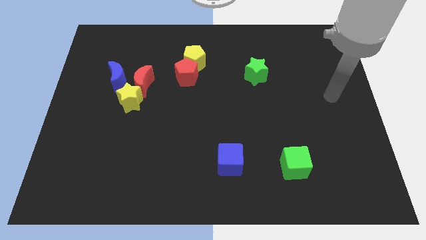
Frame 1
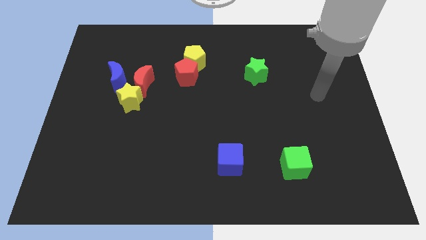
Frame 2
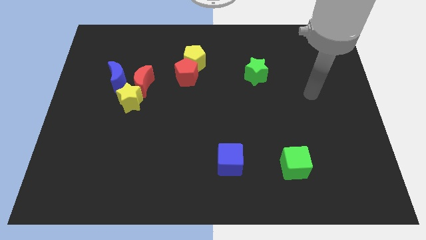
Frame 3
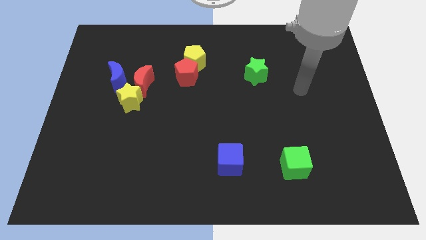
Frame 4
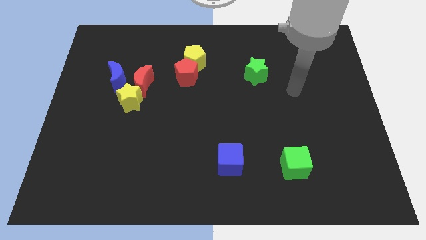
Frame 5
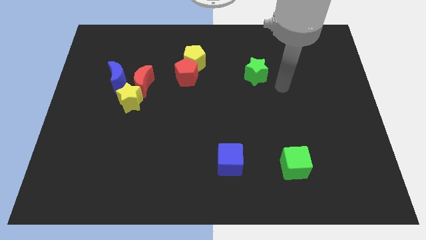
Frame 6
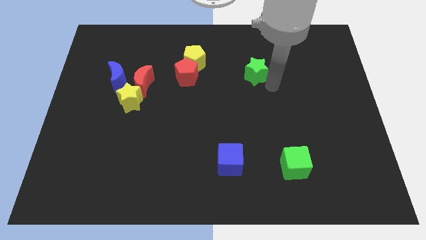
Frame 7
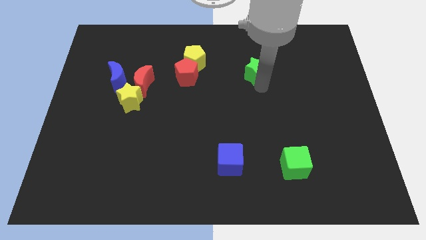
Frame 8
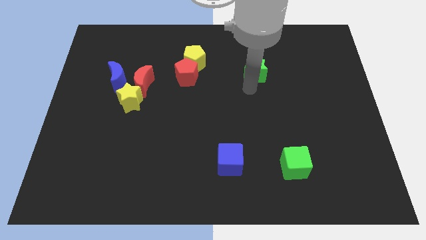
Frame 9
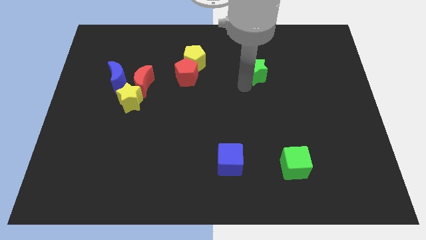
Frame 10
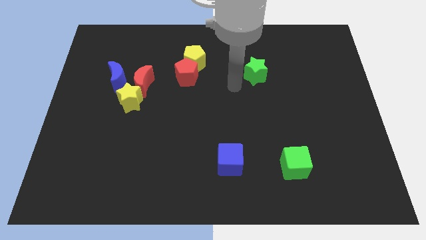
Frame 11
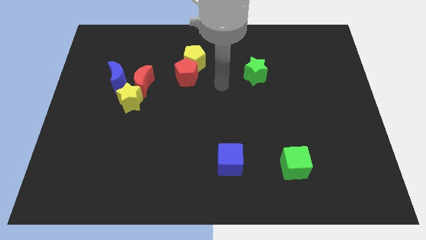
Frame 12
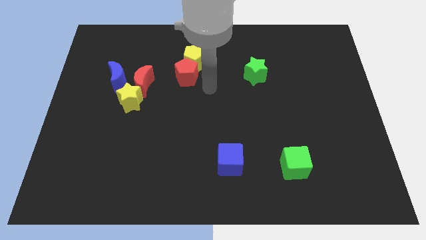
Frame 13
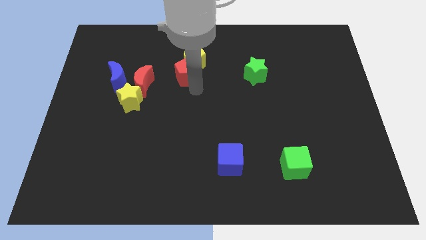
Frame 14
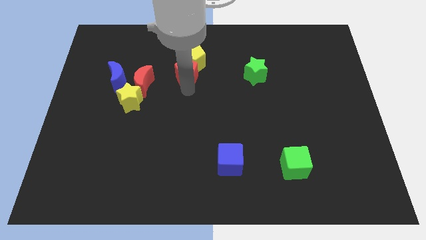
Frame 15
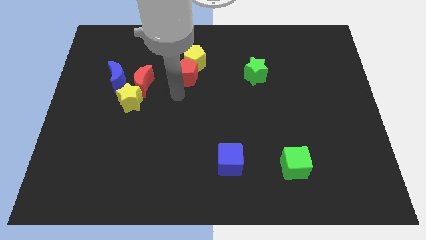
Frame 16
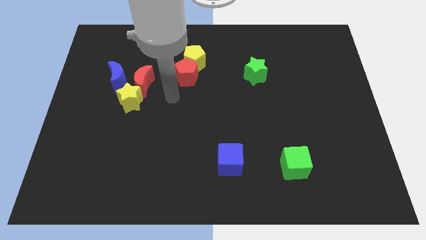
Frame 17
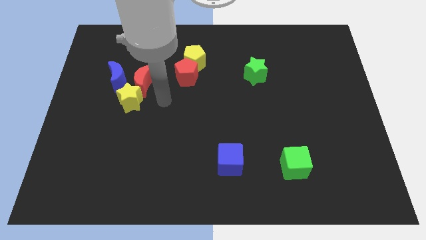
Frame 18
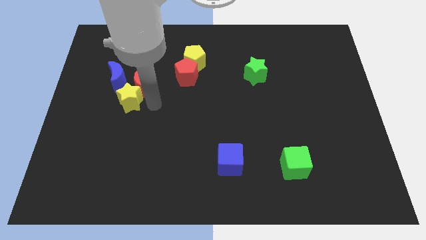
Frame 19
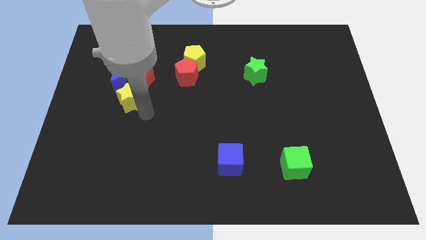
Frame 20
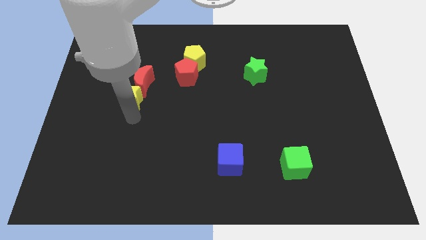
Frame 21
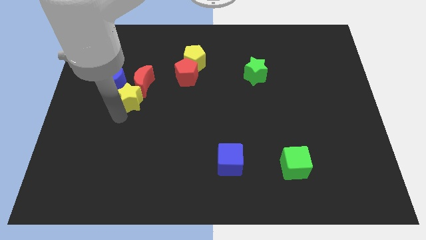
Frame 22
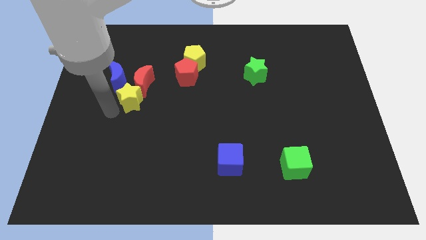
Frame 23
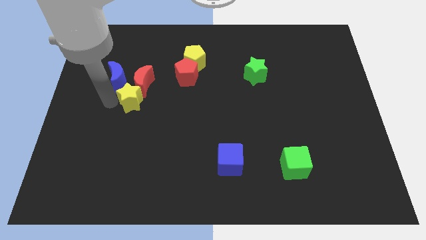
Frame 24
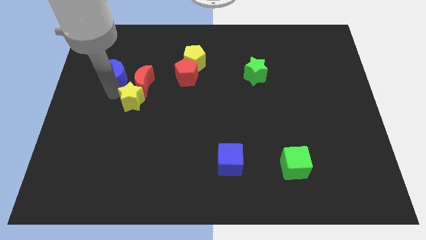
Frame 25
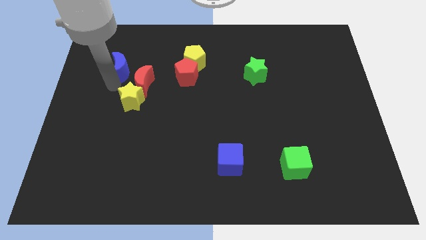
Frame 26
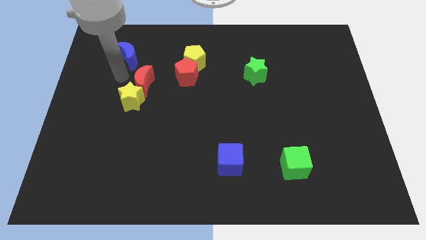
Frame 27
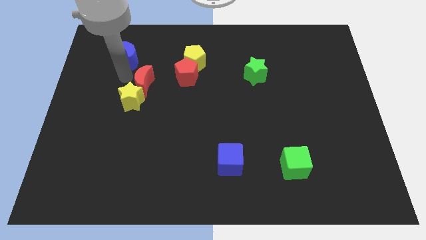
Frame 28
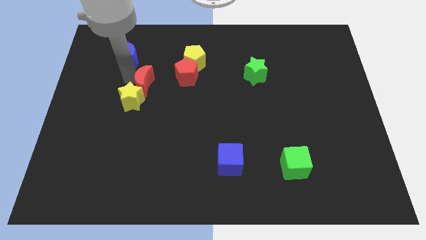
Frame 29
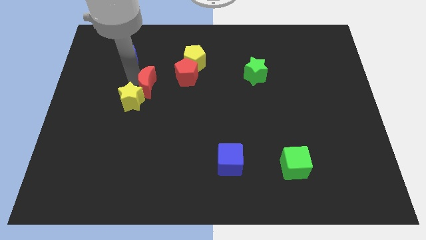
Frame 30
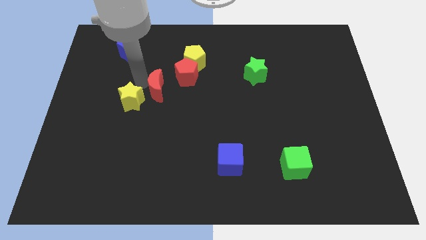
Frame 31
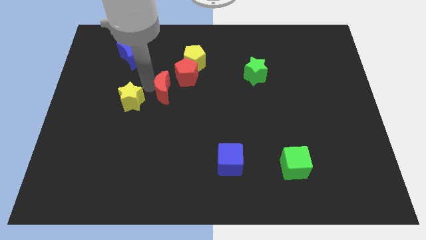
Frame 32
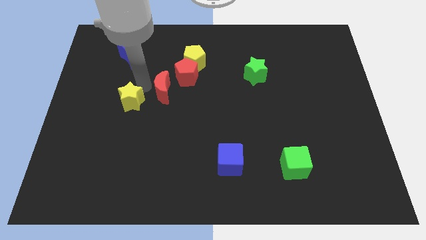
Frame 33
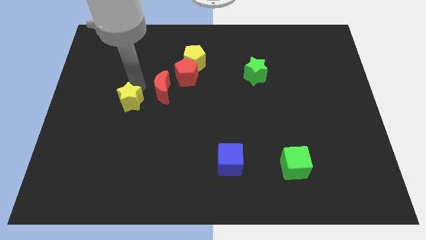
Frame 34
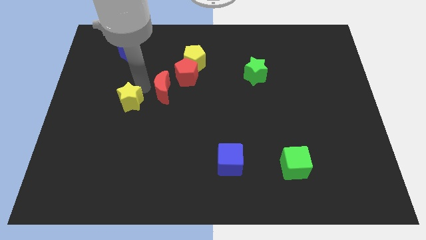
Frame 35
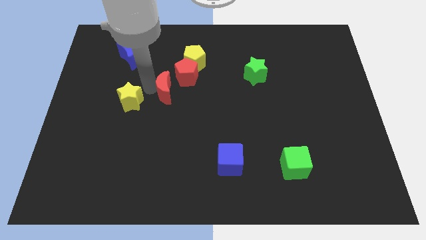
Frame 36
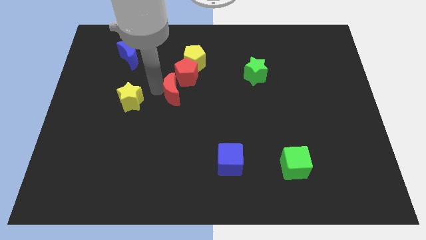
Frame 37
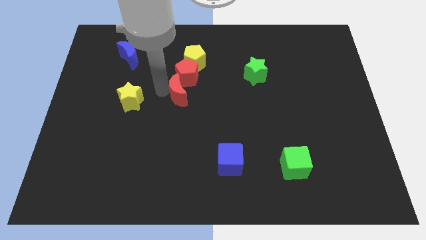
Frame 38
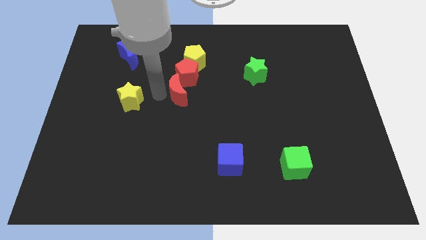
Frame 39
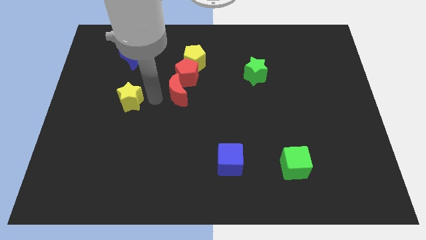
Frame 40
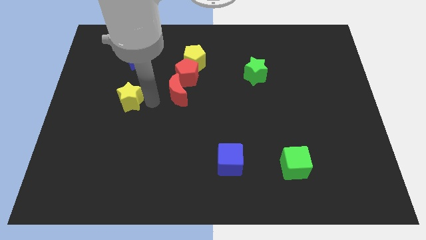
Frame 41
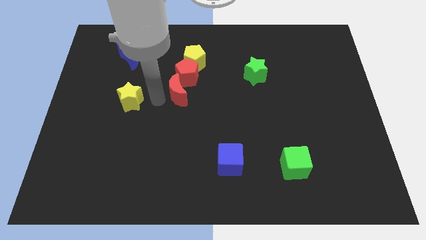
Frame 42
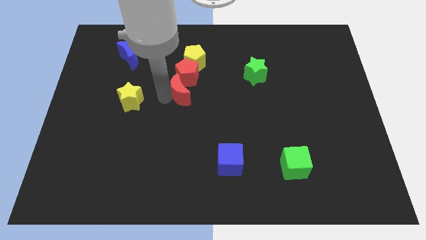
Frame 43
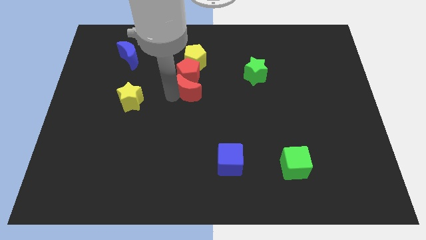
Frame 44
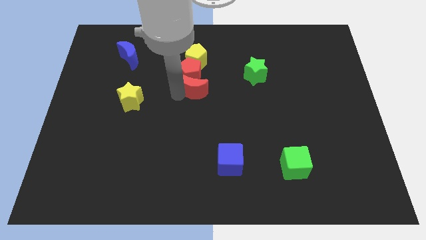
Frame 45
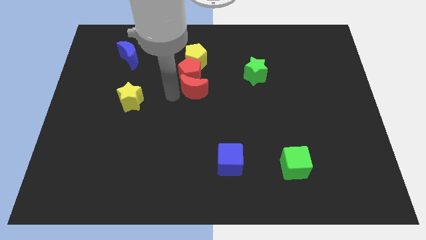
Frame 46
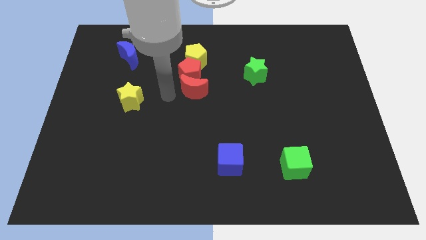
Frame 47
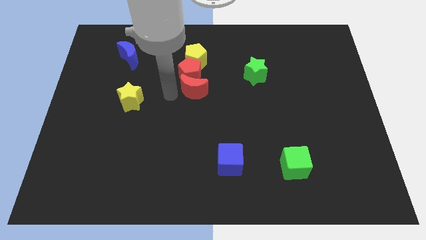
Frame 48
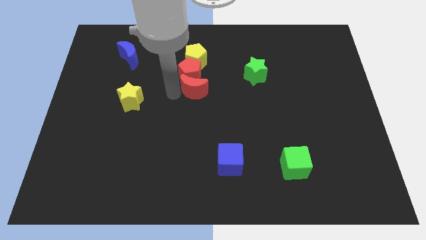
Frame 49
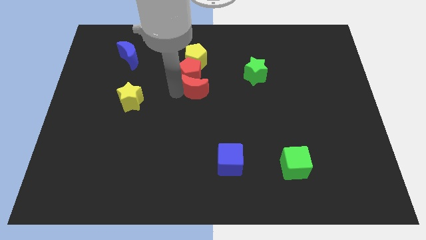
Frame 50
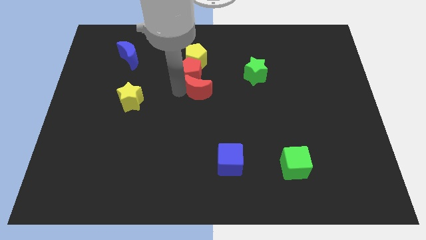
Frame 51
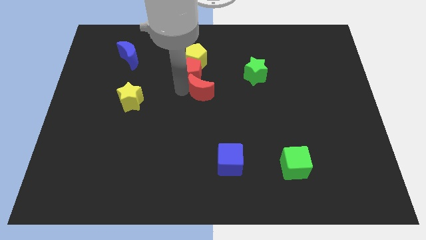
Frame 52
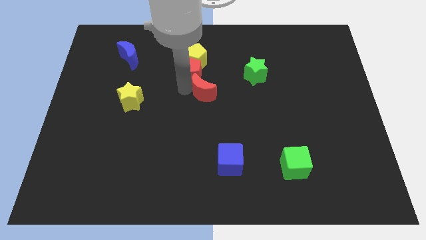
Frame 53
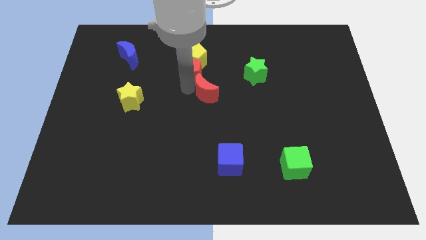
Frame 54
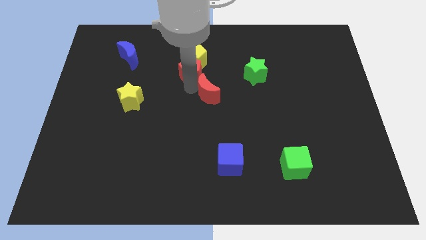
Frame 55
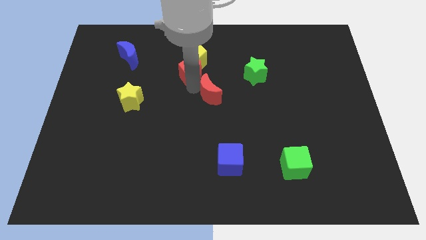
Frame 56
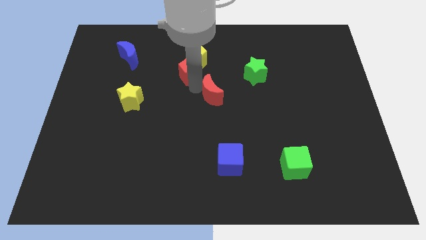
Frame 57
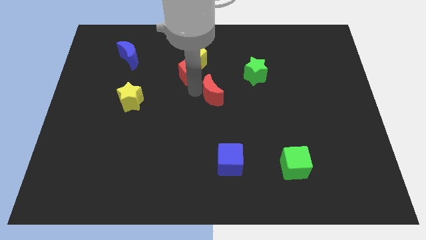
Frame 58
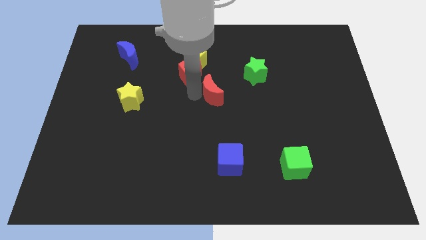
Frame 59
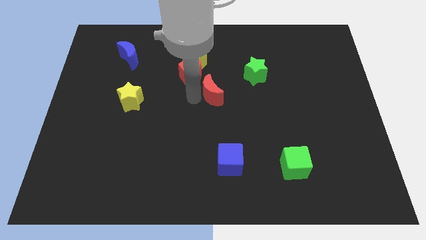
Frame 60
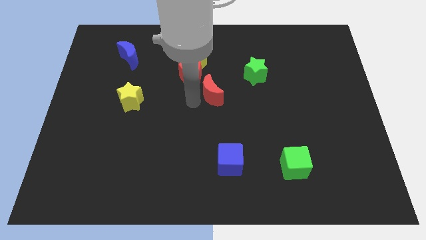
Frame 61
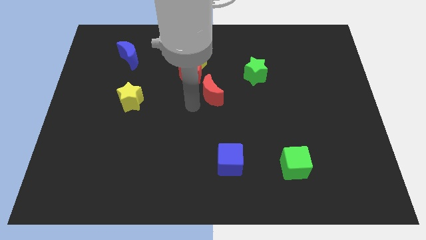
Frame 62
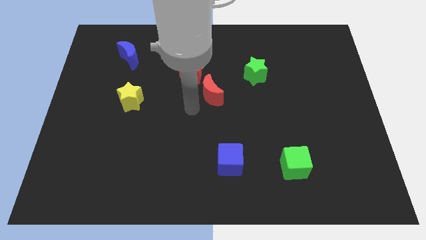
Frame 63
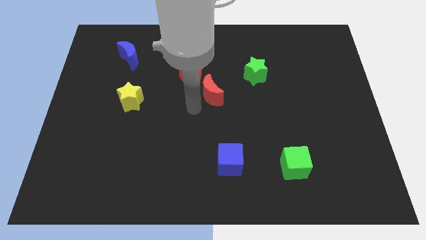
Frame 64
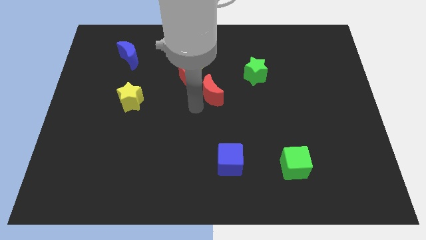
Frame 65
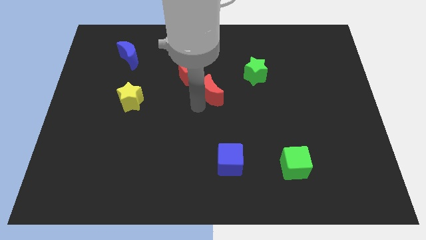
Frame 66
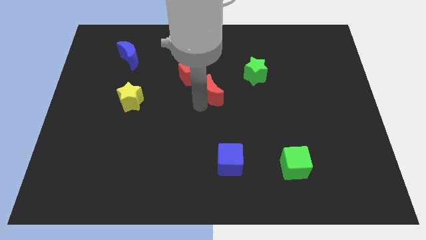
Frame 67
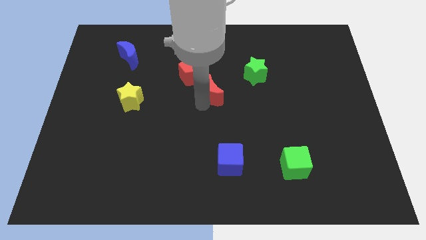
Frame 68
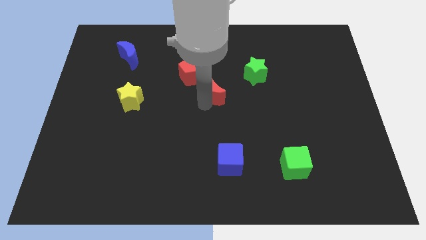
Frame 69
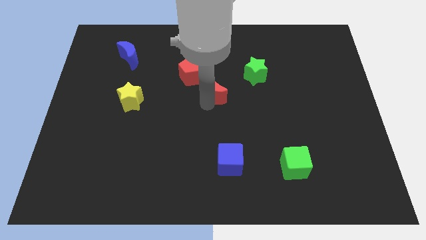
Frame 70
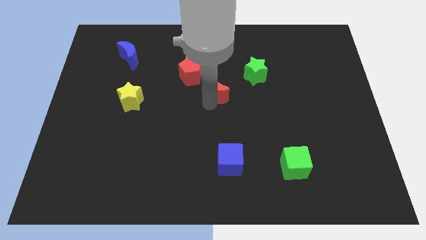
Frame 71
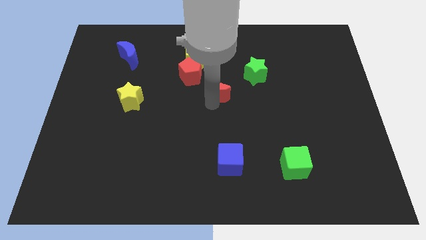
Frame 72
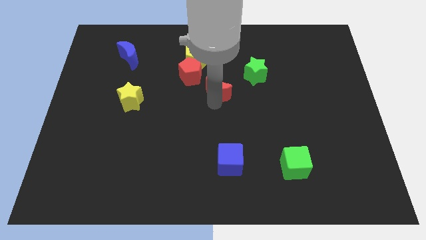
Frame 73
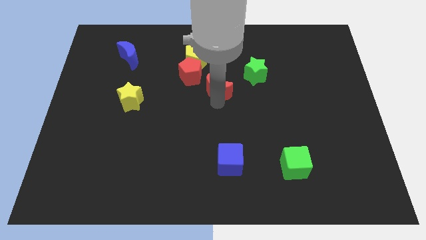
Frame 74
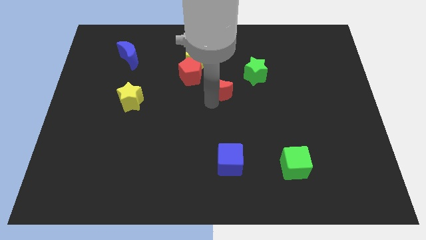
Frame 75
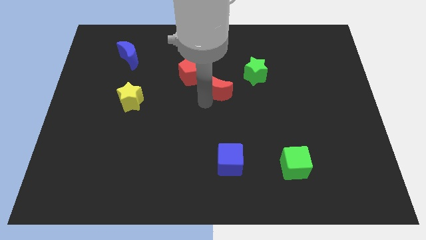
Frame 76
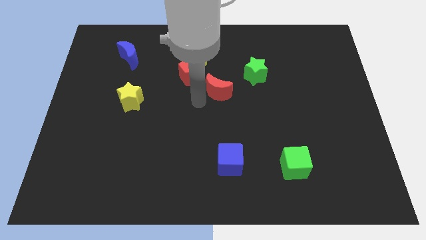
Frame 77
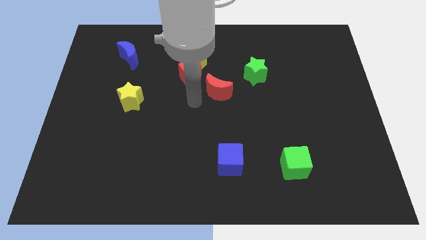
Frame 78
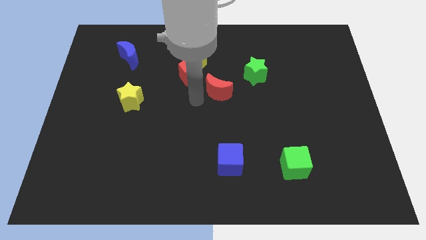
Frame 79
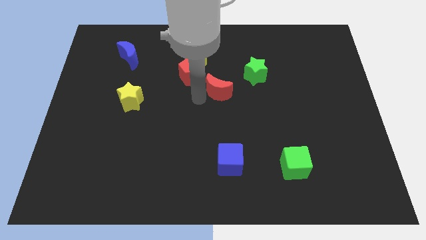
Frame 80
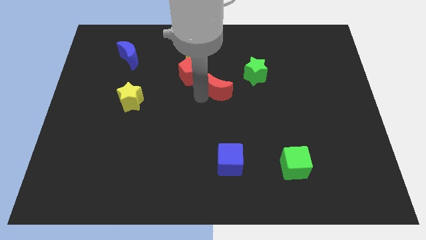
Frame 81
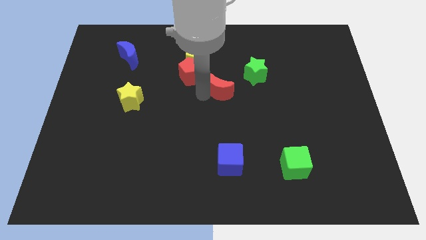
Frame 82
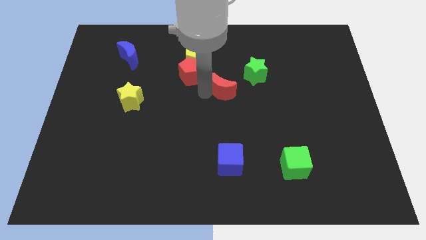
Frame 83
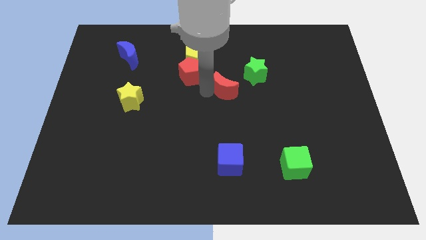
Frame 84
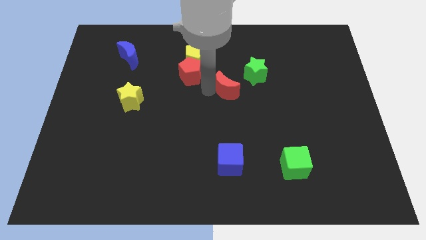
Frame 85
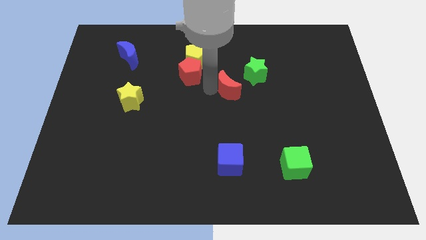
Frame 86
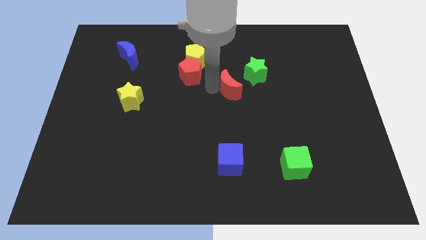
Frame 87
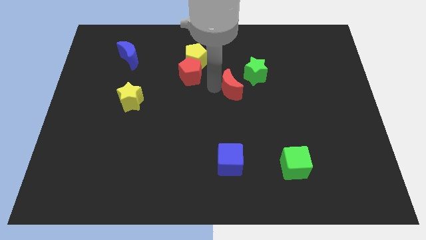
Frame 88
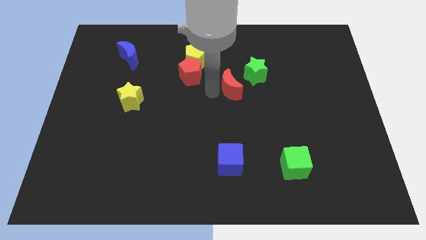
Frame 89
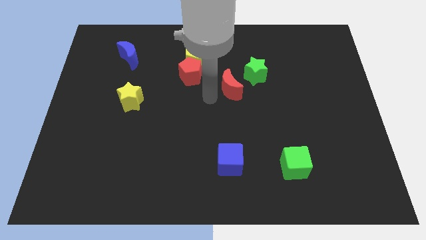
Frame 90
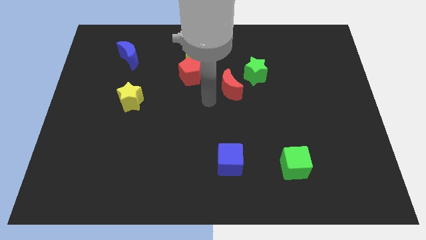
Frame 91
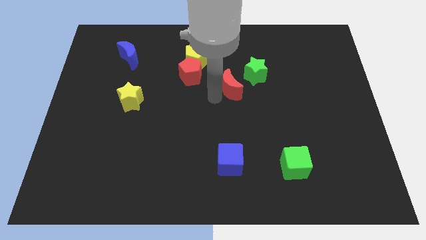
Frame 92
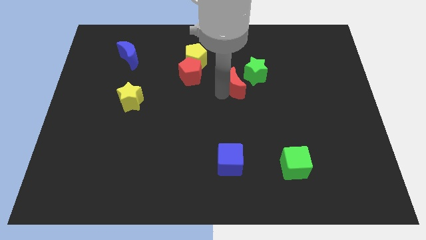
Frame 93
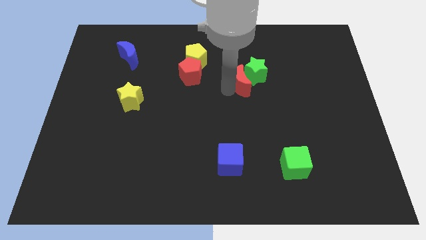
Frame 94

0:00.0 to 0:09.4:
push the red moon towards the green star
